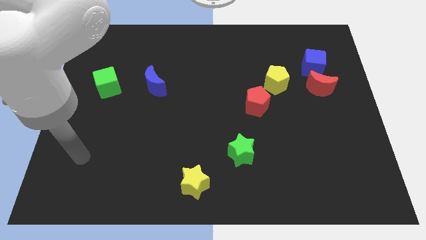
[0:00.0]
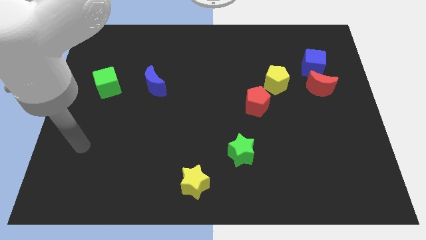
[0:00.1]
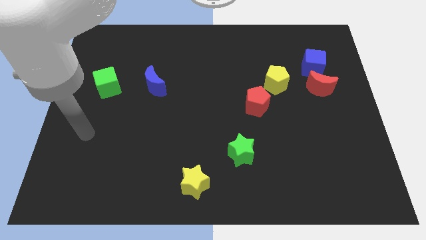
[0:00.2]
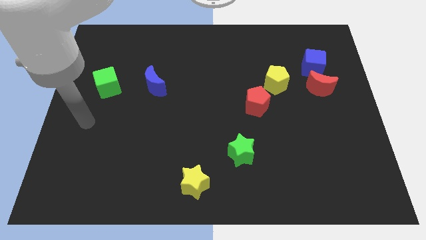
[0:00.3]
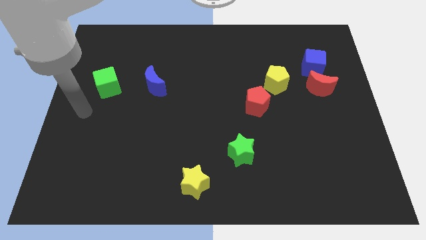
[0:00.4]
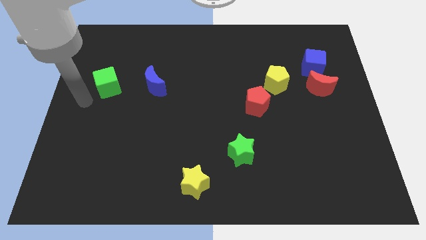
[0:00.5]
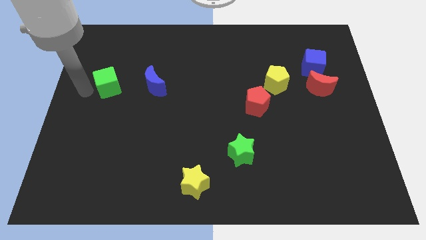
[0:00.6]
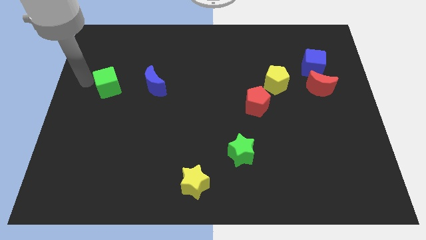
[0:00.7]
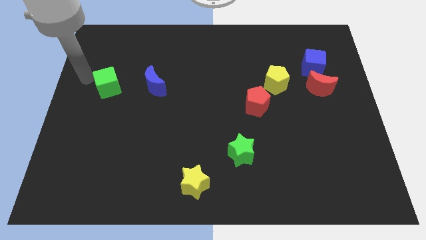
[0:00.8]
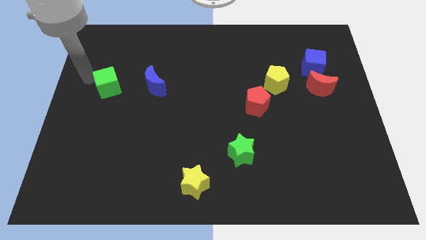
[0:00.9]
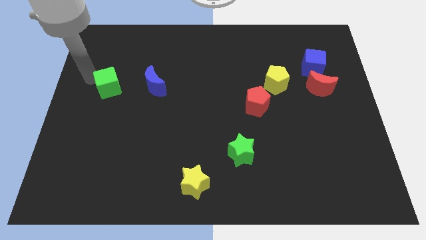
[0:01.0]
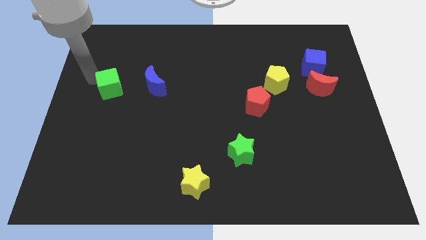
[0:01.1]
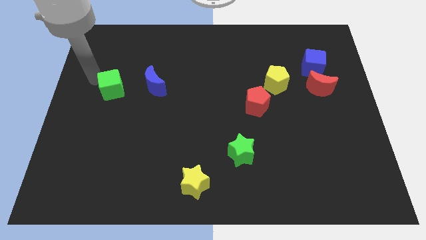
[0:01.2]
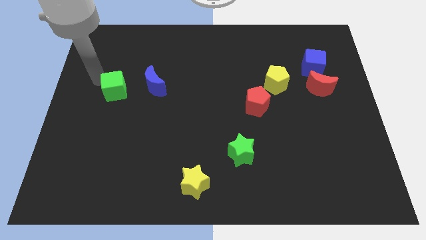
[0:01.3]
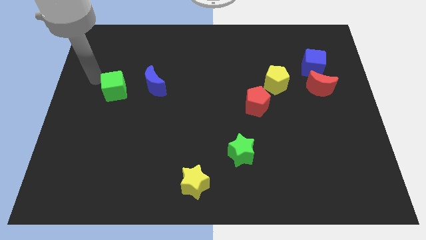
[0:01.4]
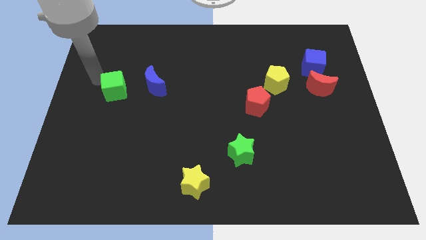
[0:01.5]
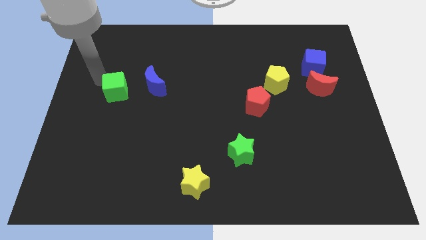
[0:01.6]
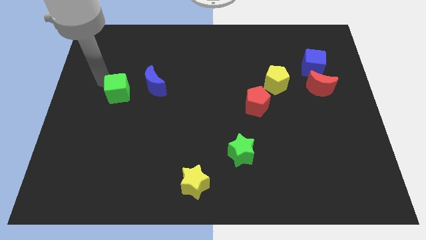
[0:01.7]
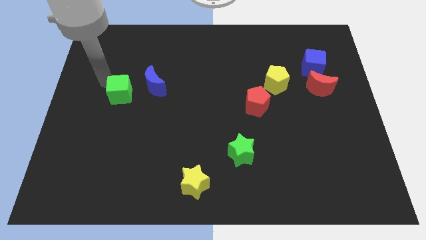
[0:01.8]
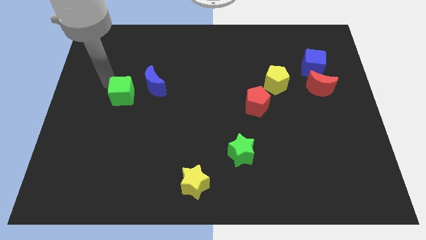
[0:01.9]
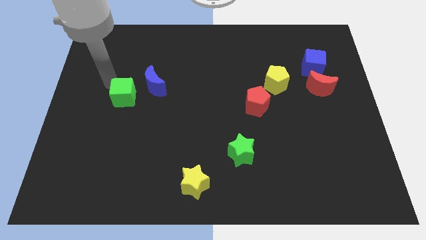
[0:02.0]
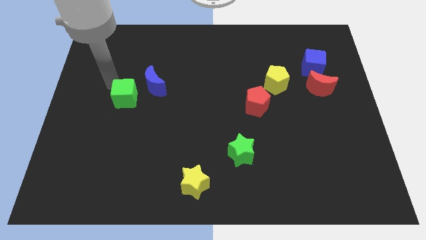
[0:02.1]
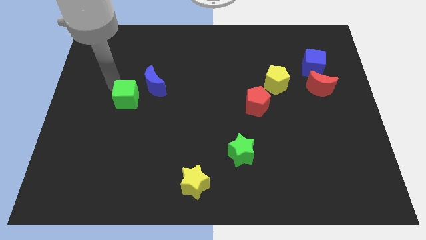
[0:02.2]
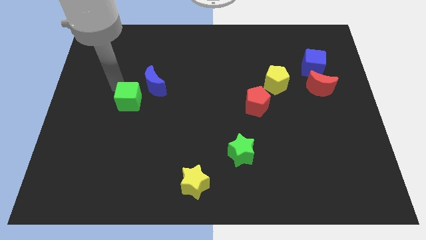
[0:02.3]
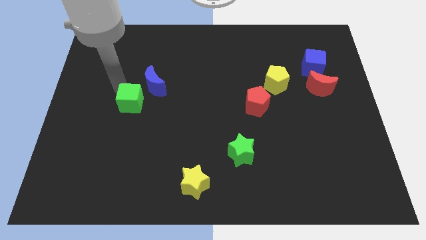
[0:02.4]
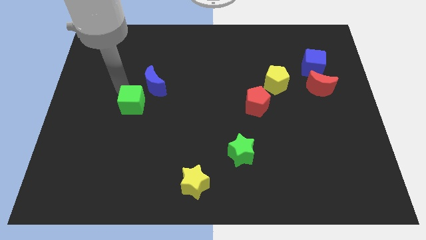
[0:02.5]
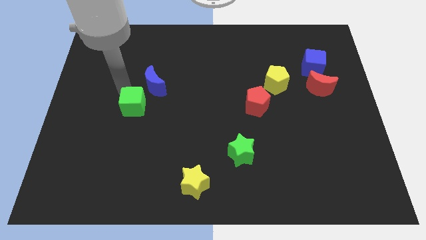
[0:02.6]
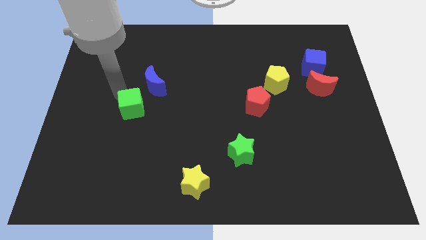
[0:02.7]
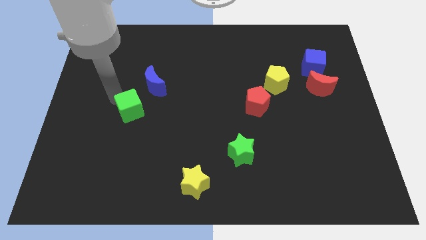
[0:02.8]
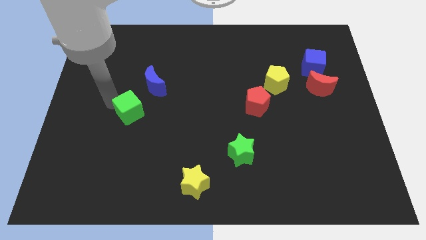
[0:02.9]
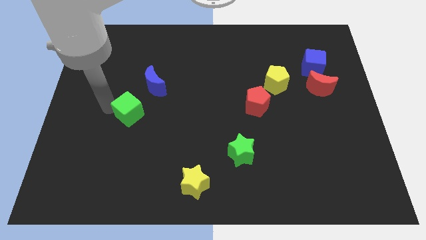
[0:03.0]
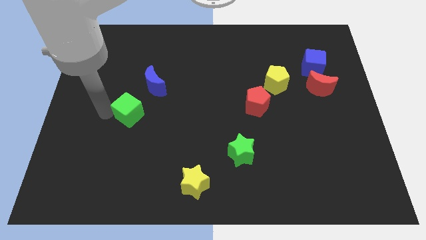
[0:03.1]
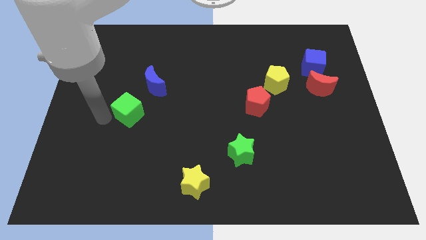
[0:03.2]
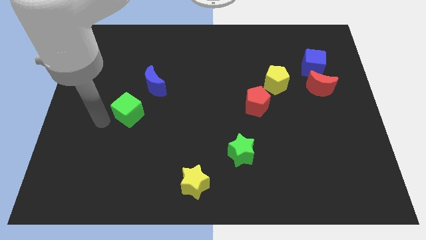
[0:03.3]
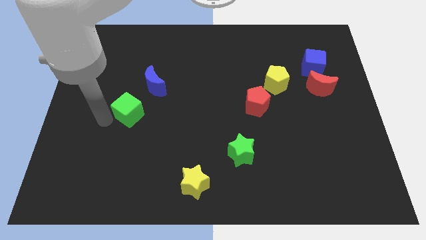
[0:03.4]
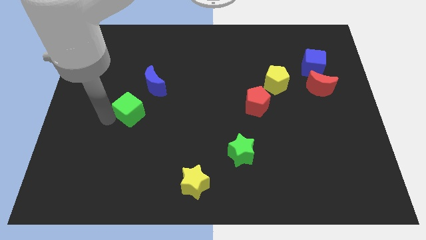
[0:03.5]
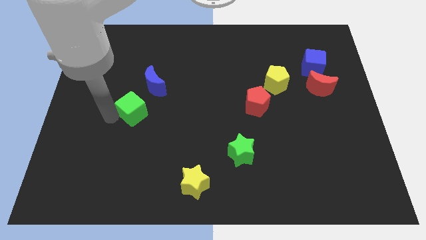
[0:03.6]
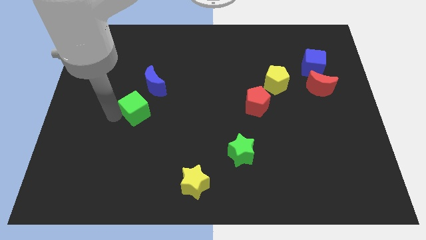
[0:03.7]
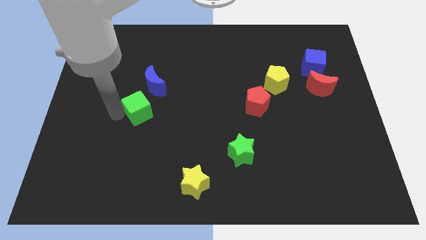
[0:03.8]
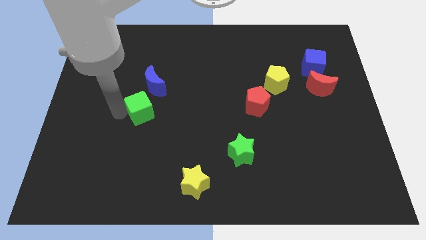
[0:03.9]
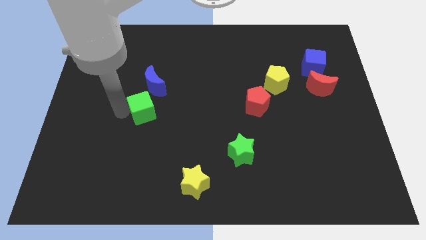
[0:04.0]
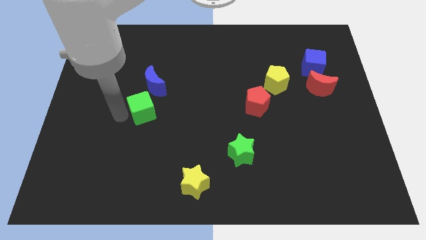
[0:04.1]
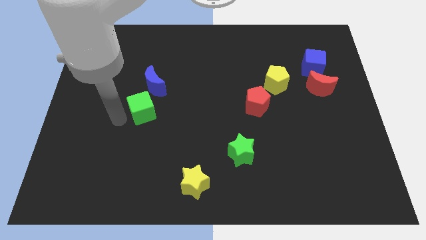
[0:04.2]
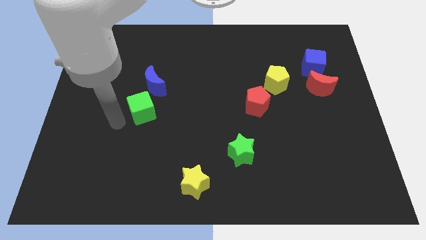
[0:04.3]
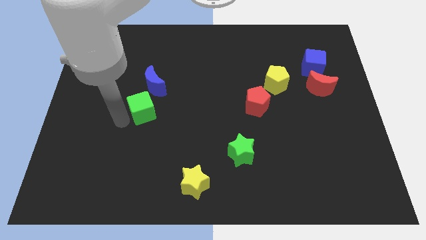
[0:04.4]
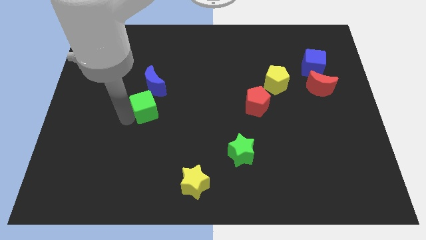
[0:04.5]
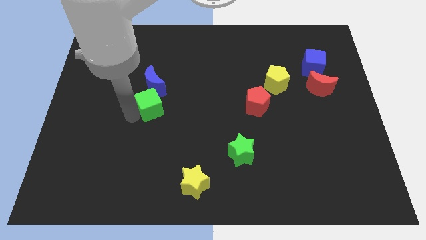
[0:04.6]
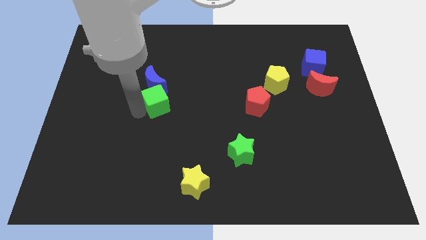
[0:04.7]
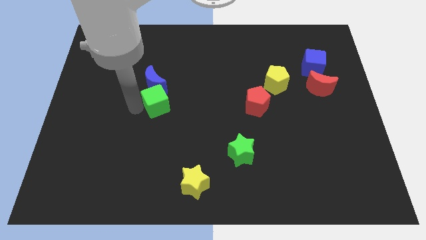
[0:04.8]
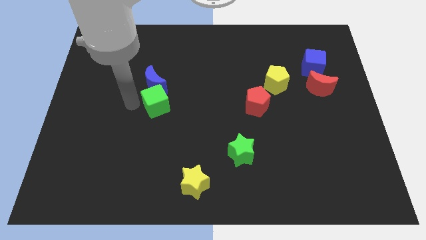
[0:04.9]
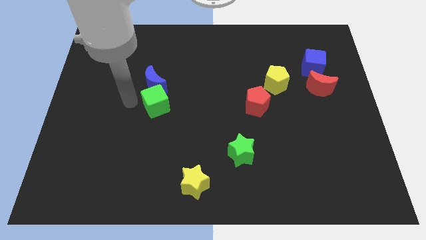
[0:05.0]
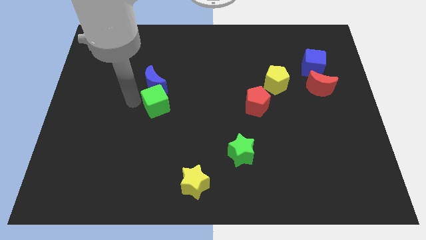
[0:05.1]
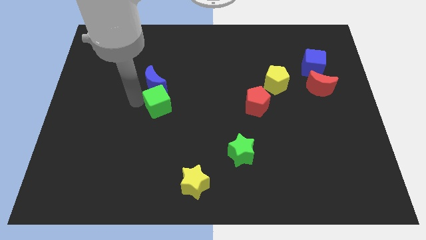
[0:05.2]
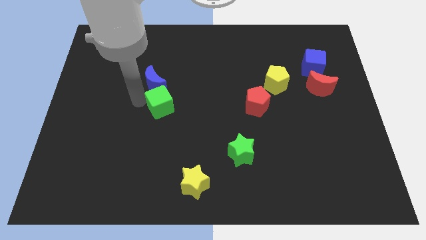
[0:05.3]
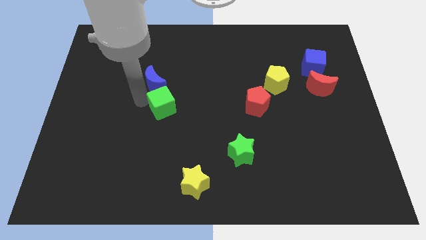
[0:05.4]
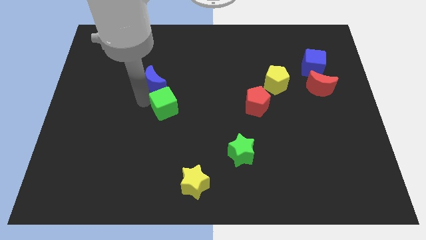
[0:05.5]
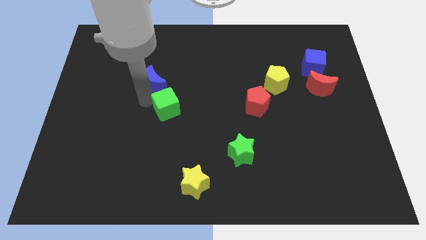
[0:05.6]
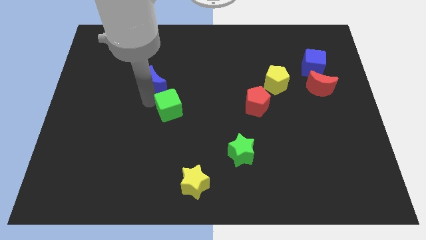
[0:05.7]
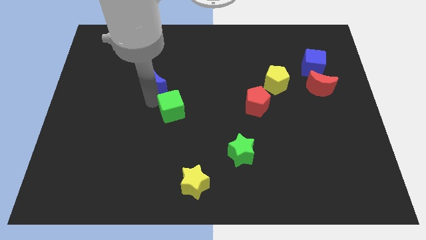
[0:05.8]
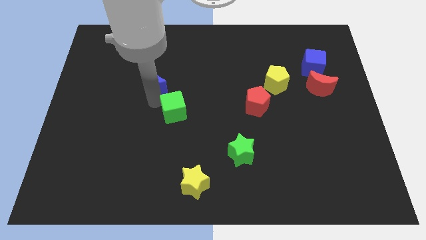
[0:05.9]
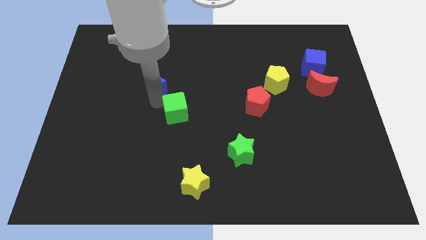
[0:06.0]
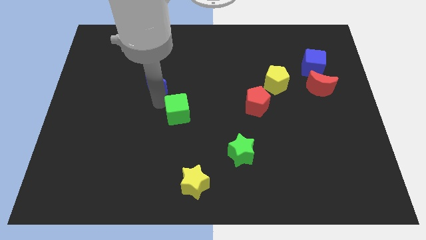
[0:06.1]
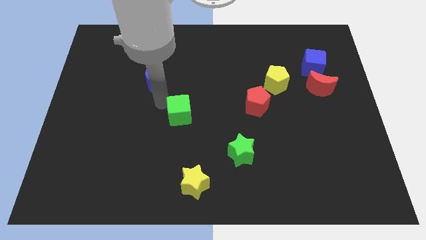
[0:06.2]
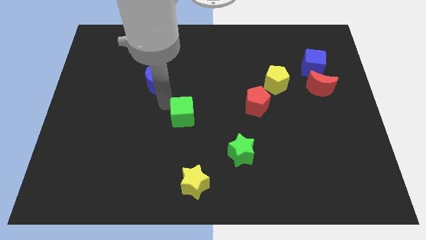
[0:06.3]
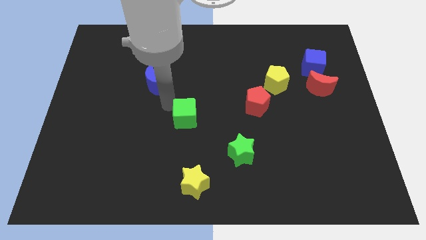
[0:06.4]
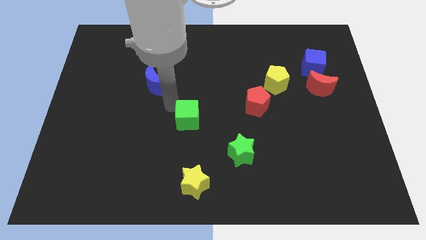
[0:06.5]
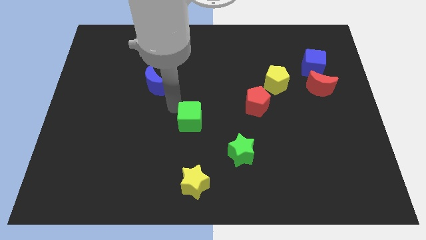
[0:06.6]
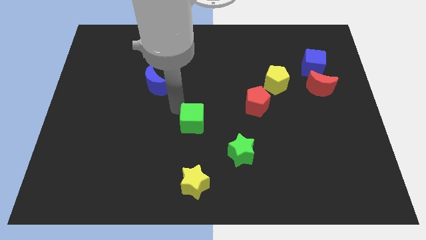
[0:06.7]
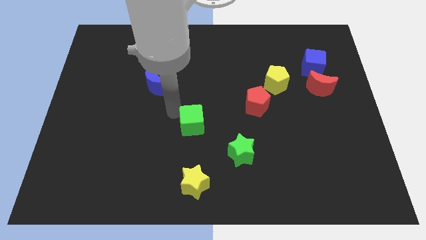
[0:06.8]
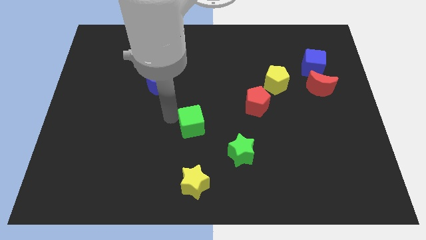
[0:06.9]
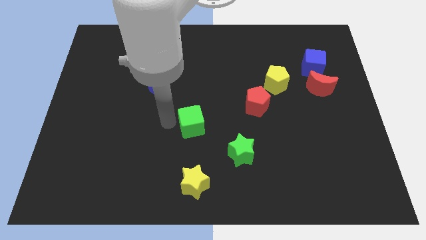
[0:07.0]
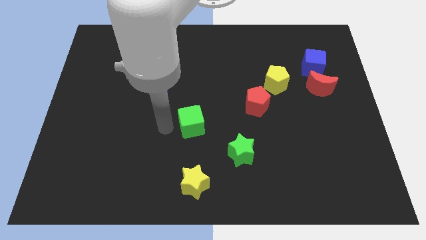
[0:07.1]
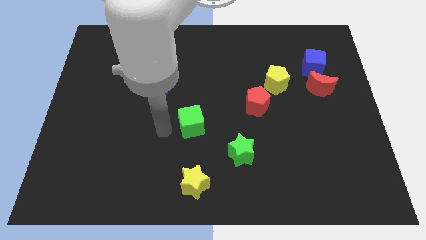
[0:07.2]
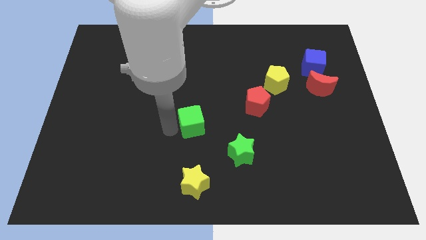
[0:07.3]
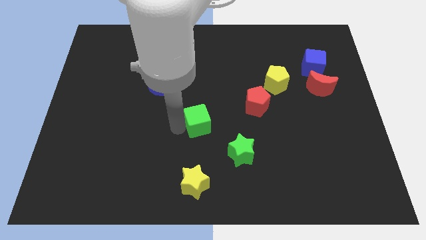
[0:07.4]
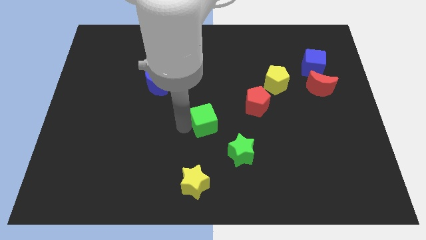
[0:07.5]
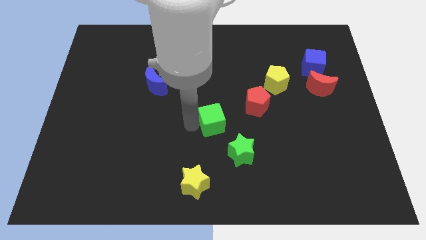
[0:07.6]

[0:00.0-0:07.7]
put the green cube diagonally down and to the left of the red pentagon
